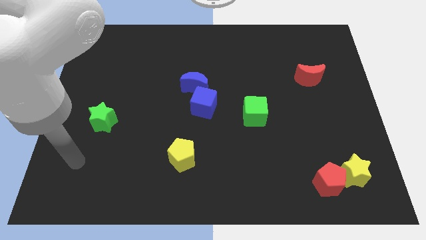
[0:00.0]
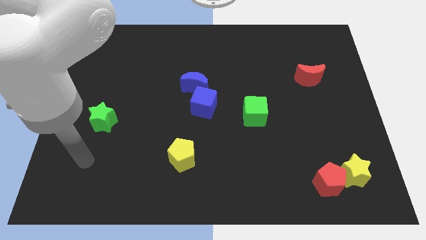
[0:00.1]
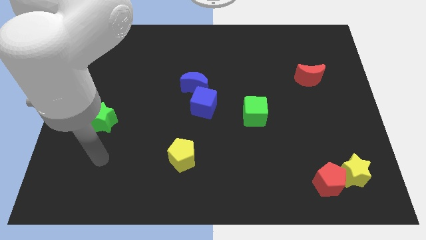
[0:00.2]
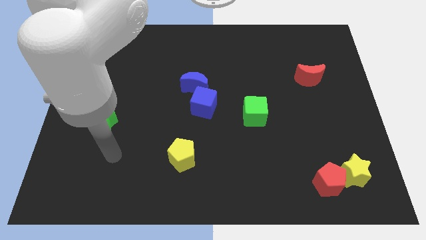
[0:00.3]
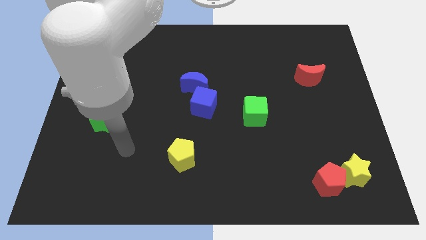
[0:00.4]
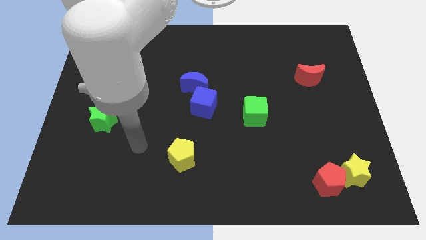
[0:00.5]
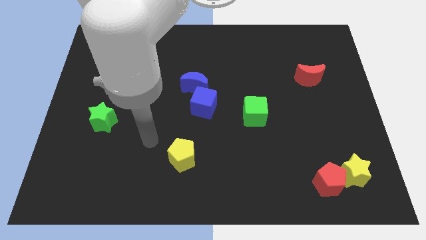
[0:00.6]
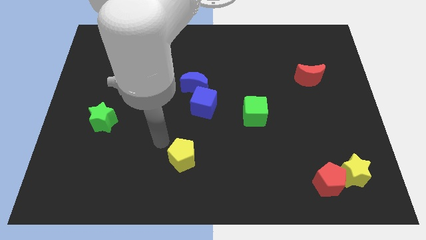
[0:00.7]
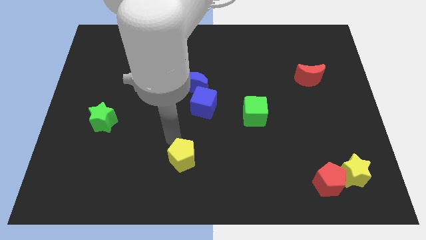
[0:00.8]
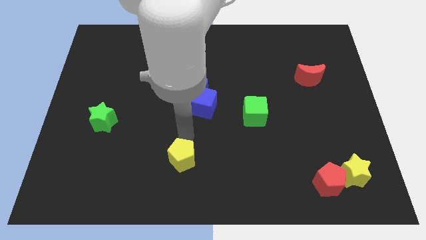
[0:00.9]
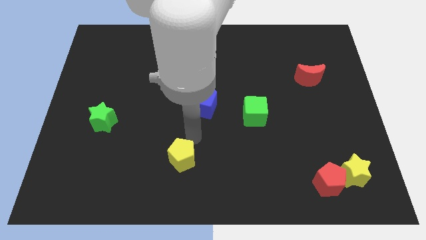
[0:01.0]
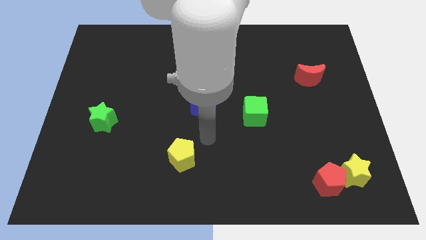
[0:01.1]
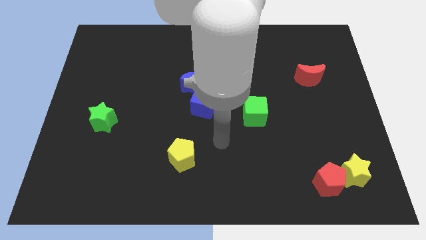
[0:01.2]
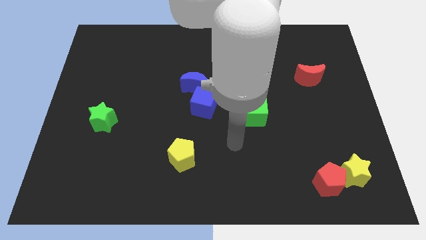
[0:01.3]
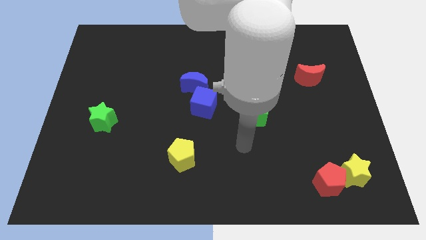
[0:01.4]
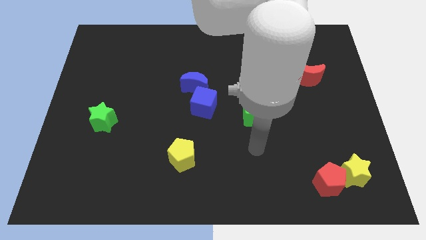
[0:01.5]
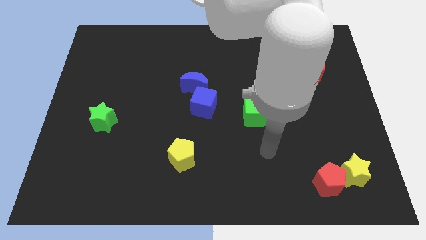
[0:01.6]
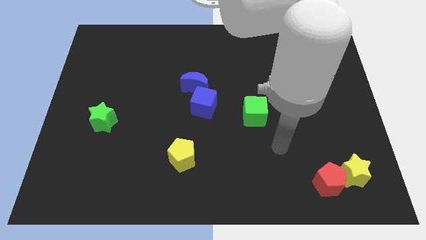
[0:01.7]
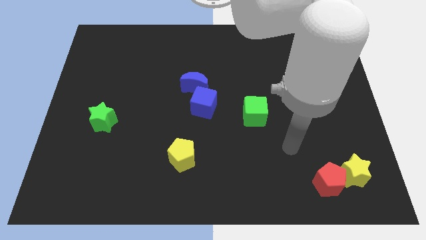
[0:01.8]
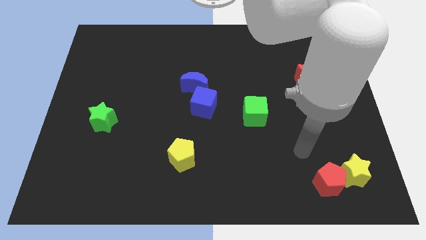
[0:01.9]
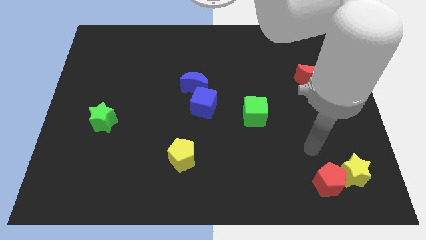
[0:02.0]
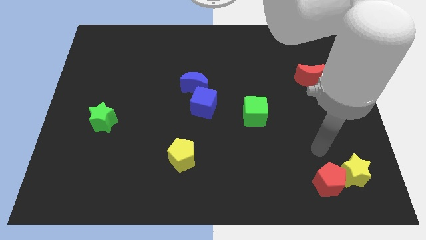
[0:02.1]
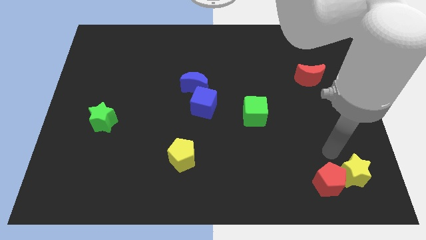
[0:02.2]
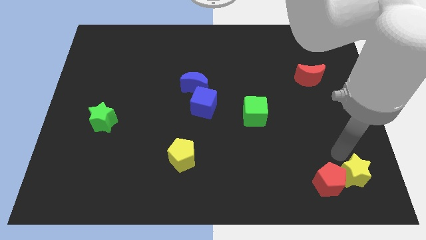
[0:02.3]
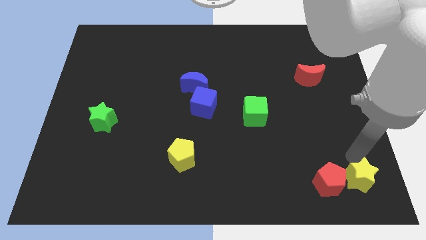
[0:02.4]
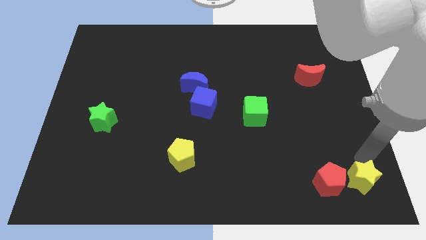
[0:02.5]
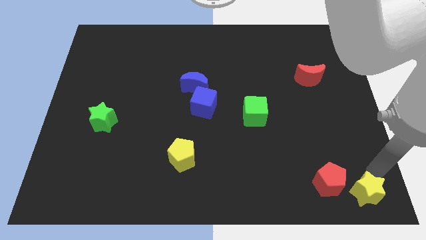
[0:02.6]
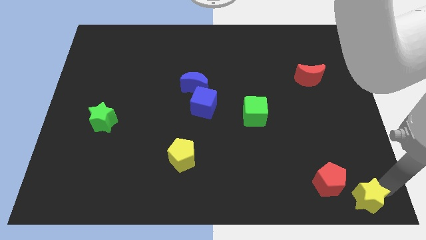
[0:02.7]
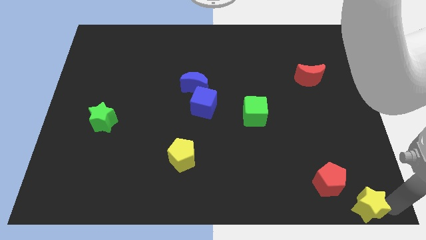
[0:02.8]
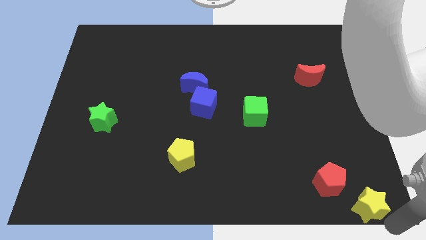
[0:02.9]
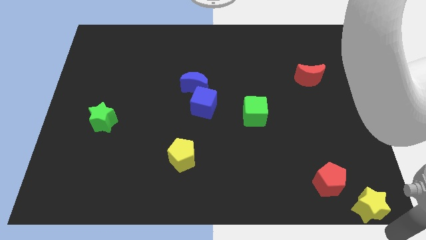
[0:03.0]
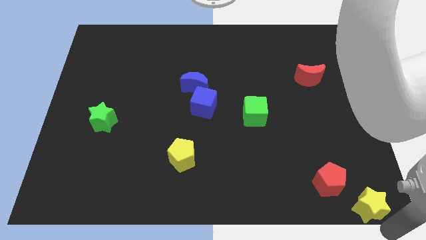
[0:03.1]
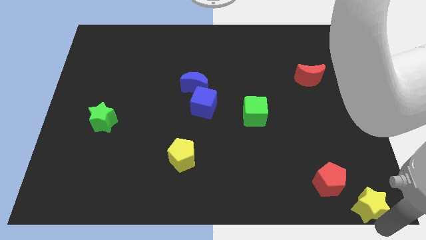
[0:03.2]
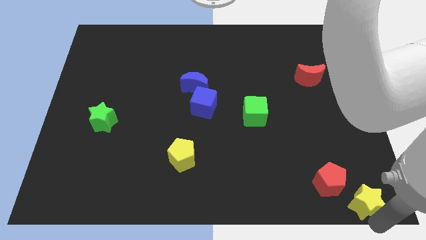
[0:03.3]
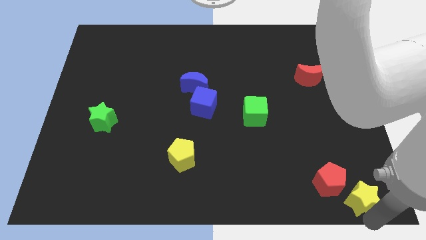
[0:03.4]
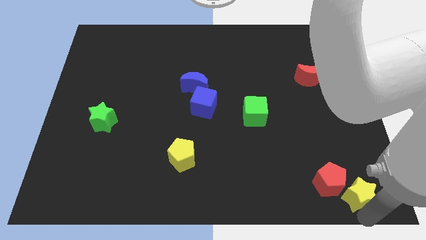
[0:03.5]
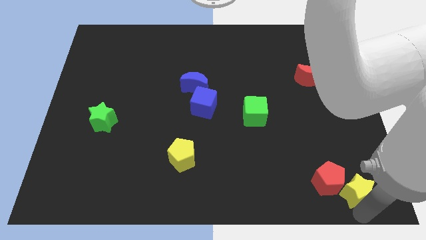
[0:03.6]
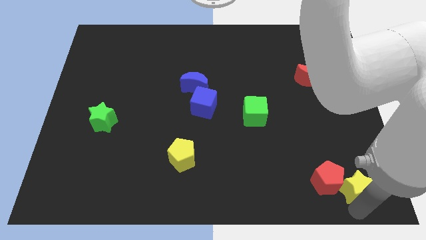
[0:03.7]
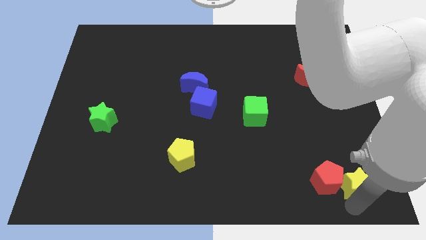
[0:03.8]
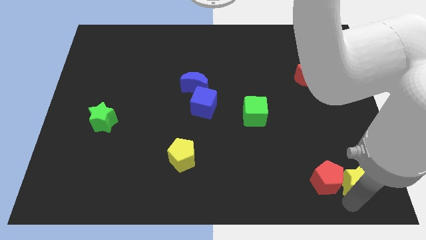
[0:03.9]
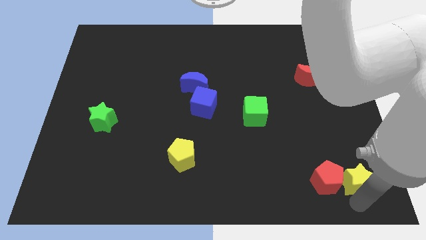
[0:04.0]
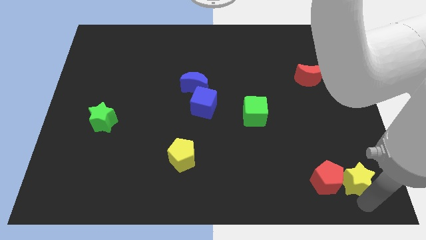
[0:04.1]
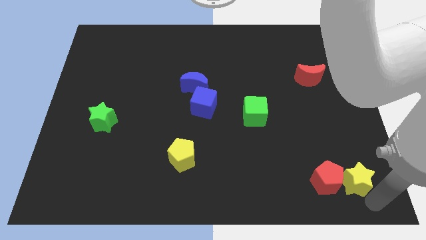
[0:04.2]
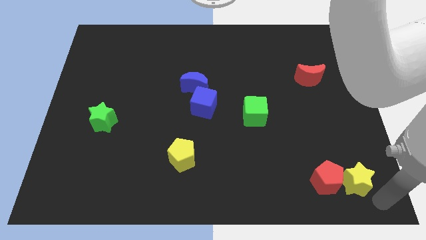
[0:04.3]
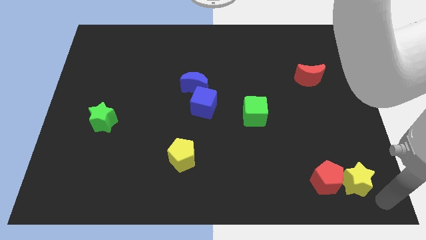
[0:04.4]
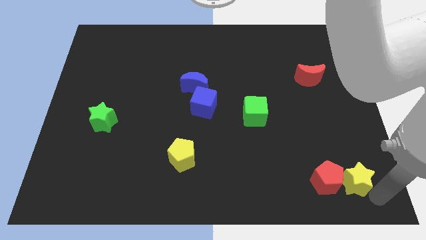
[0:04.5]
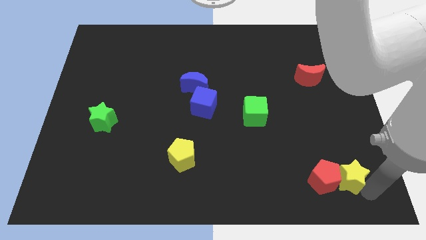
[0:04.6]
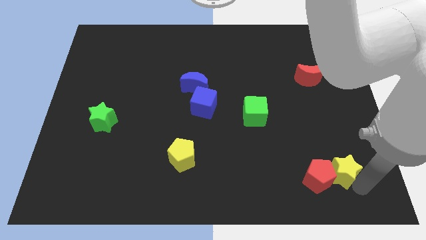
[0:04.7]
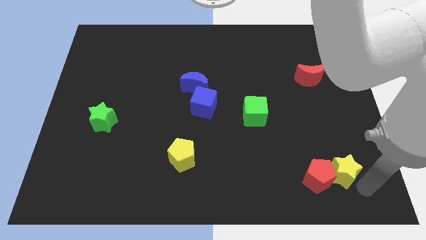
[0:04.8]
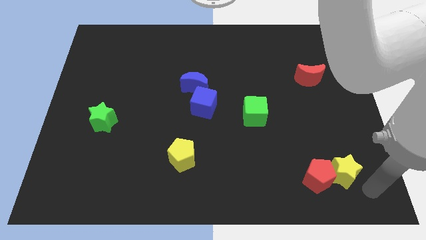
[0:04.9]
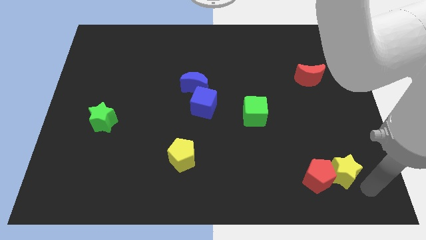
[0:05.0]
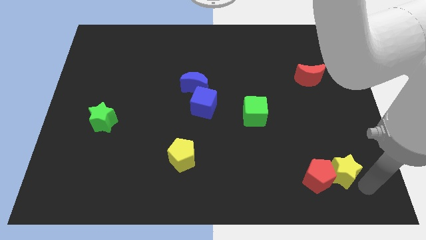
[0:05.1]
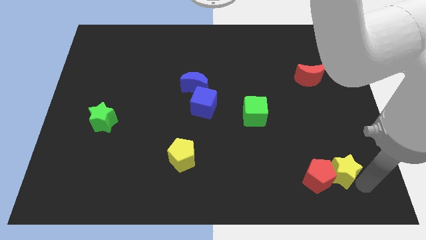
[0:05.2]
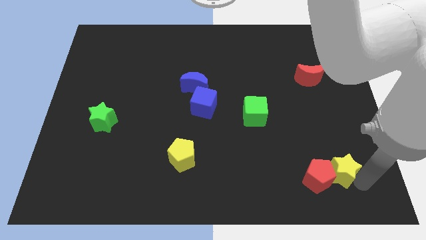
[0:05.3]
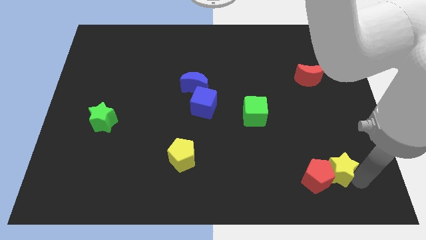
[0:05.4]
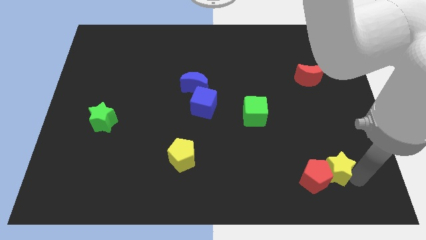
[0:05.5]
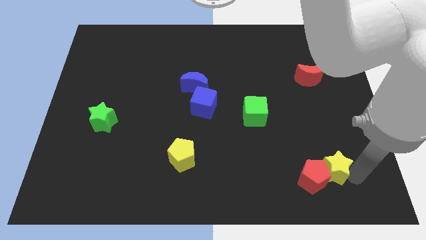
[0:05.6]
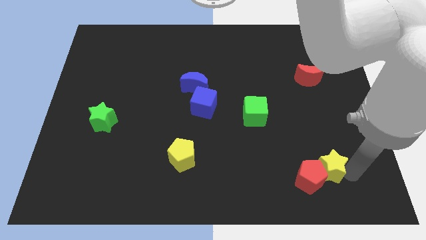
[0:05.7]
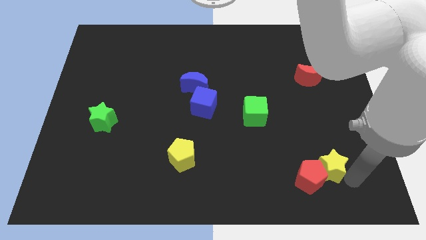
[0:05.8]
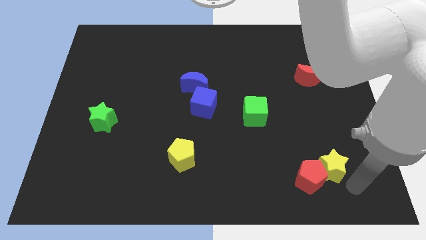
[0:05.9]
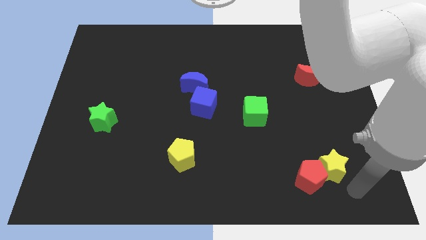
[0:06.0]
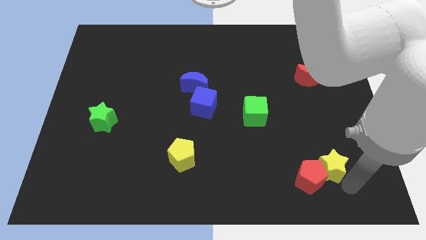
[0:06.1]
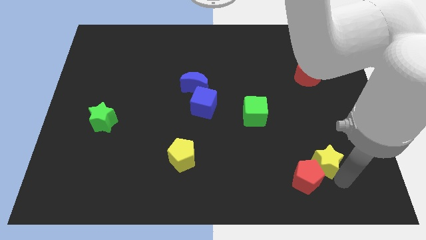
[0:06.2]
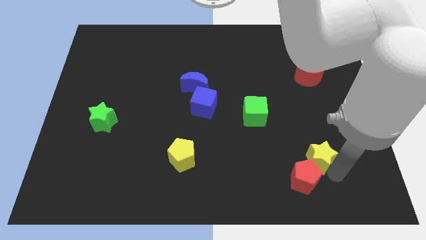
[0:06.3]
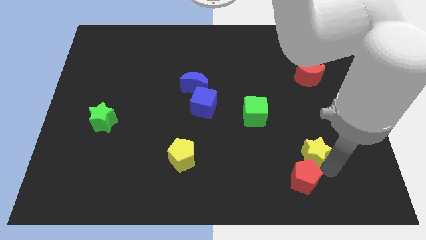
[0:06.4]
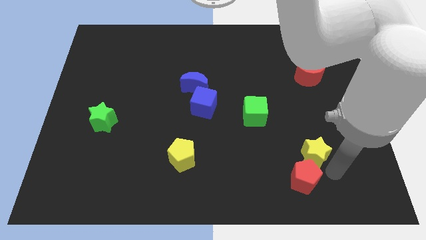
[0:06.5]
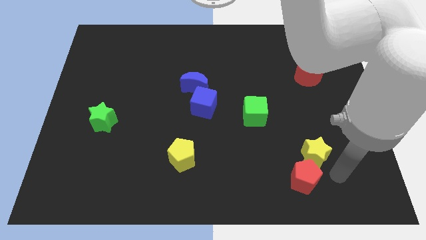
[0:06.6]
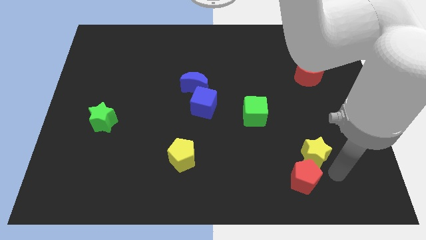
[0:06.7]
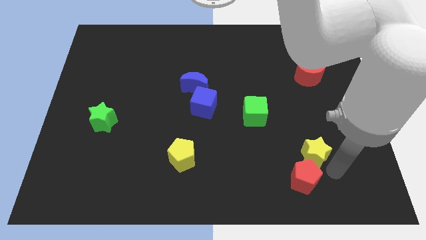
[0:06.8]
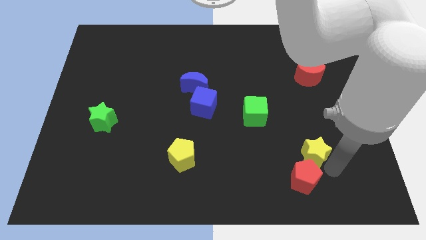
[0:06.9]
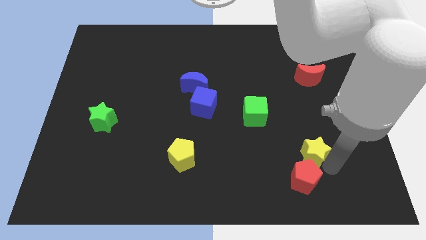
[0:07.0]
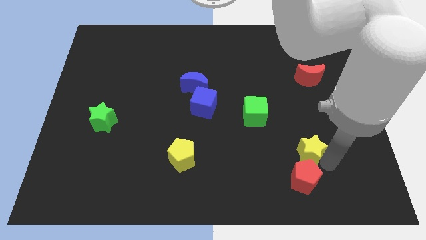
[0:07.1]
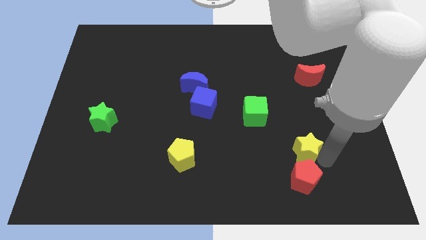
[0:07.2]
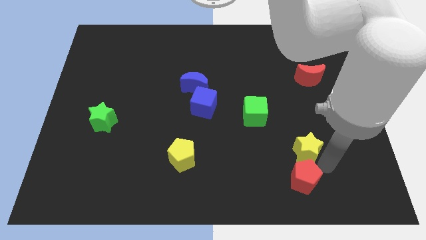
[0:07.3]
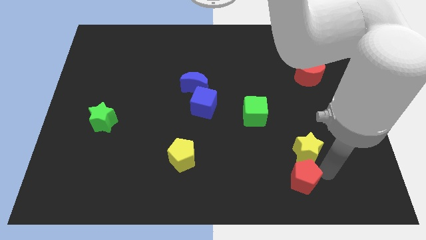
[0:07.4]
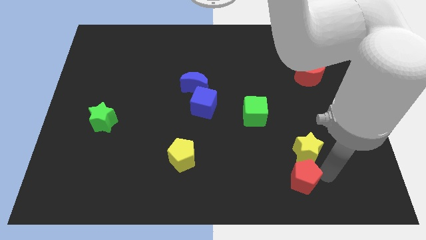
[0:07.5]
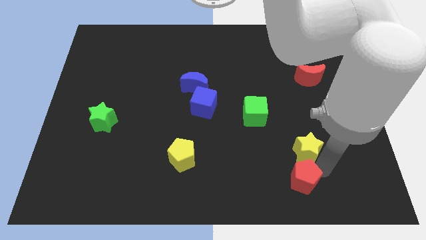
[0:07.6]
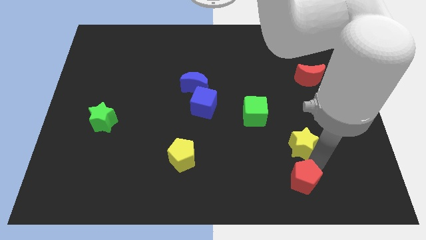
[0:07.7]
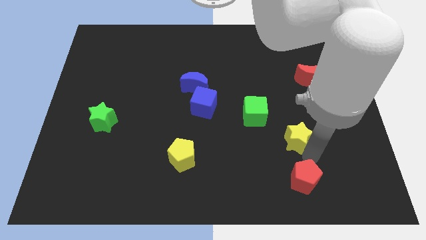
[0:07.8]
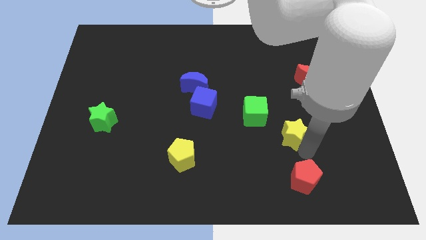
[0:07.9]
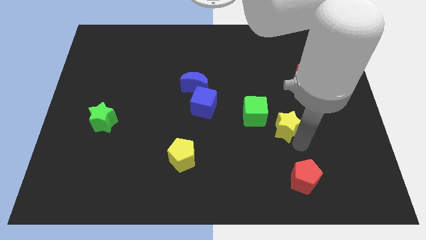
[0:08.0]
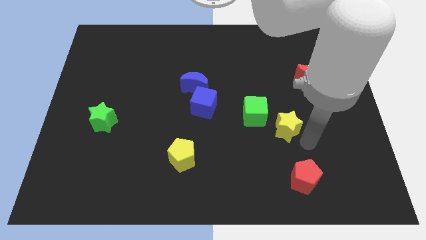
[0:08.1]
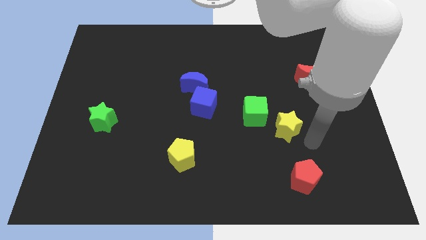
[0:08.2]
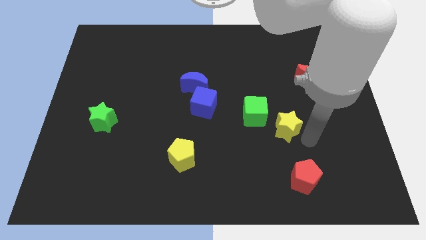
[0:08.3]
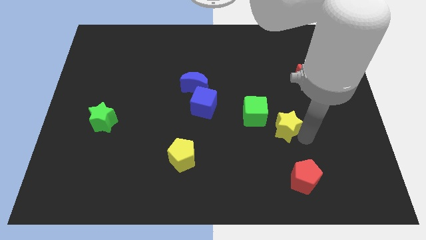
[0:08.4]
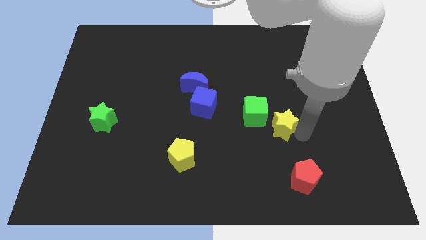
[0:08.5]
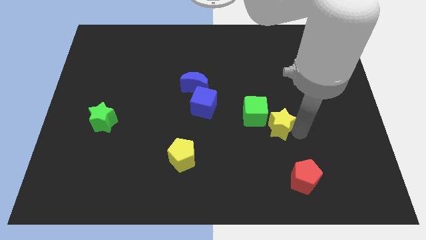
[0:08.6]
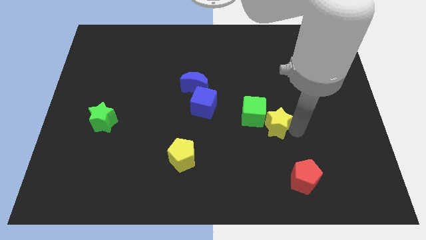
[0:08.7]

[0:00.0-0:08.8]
move the yellow star to the green cube
